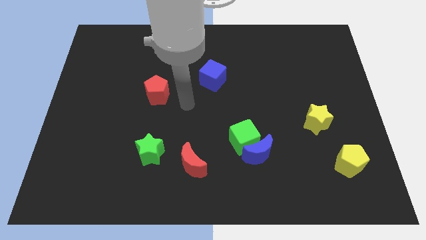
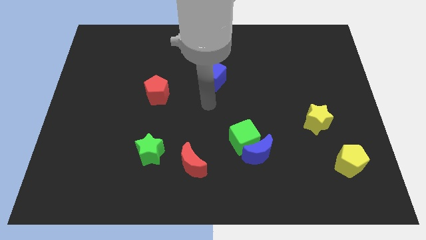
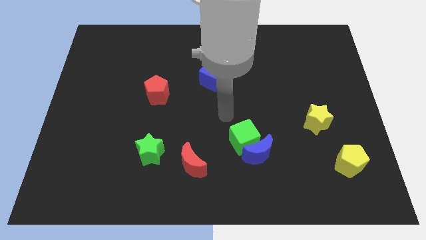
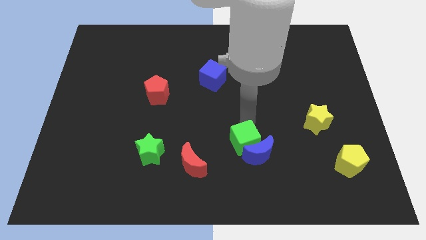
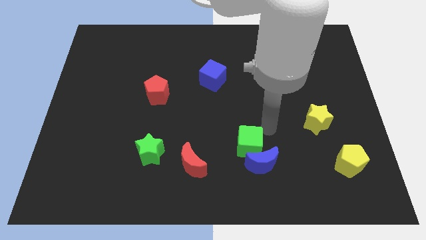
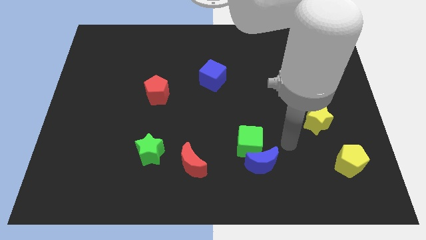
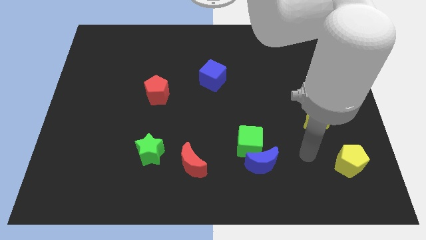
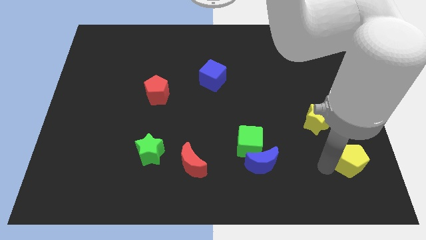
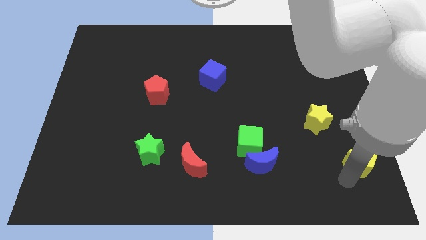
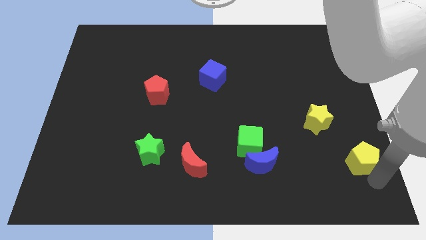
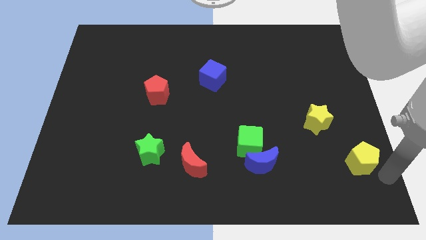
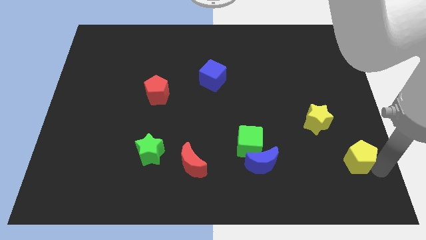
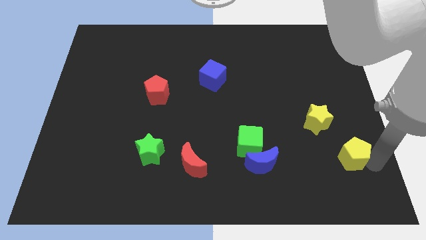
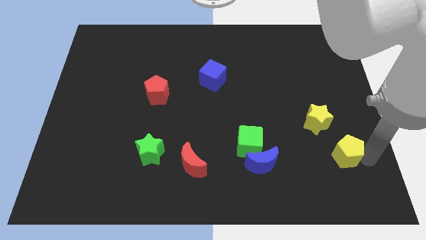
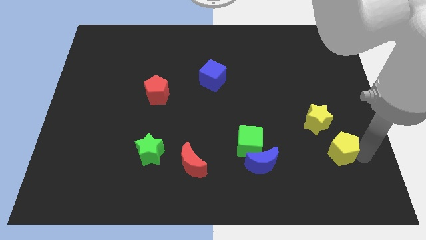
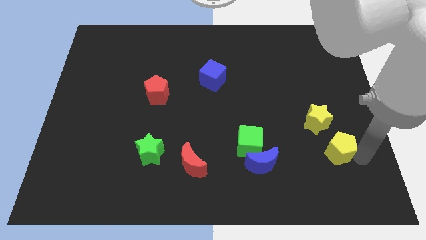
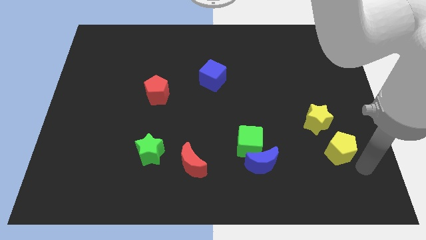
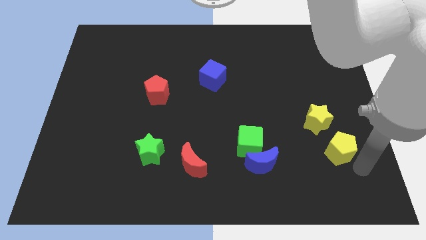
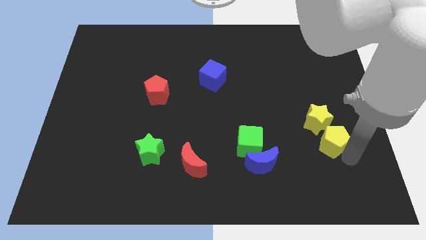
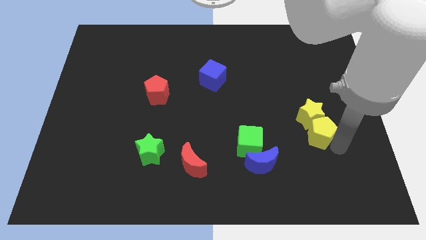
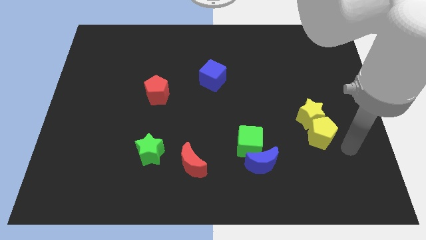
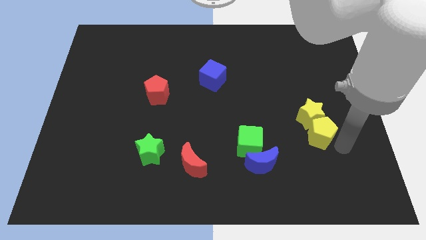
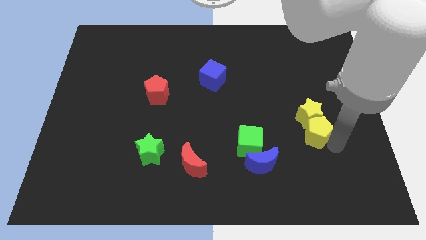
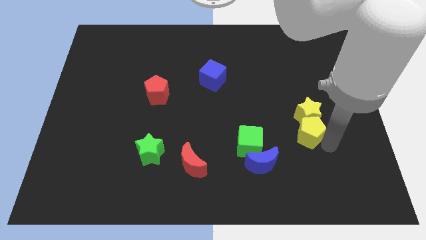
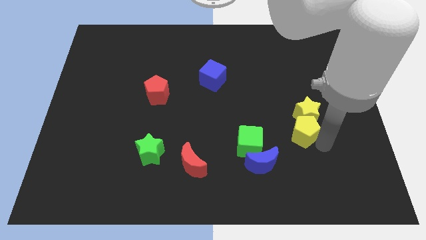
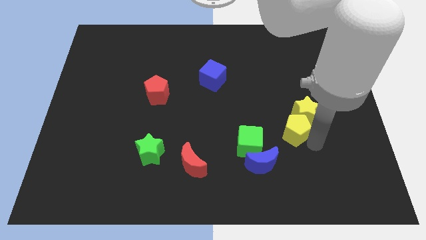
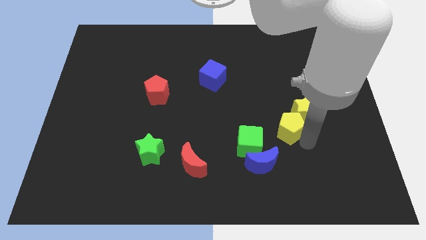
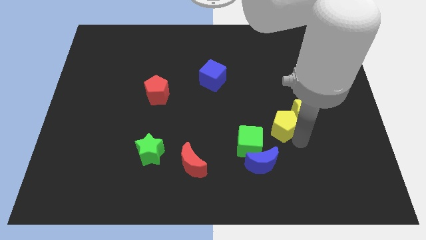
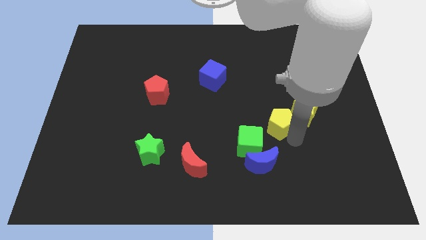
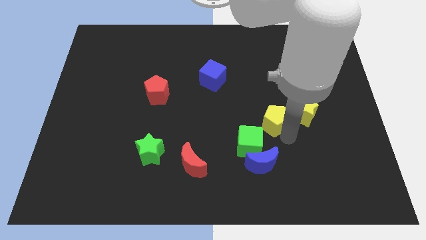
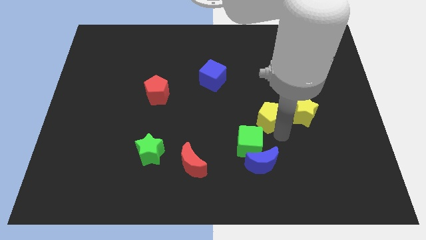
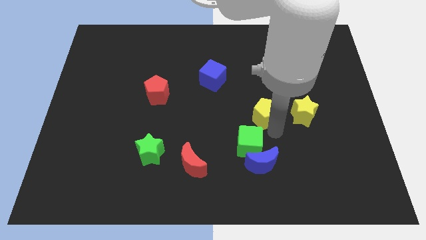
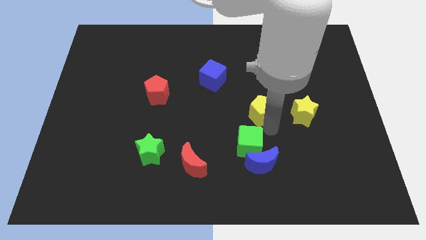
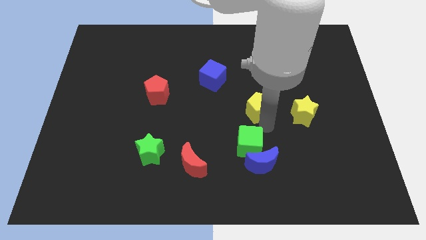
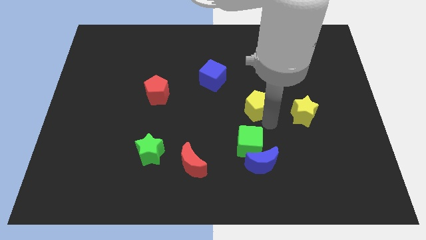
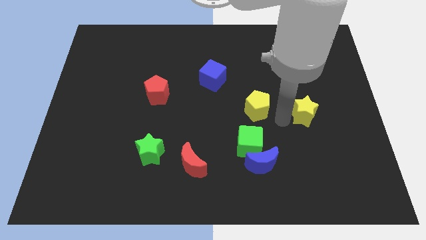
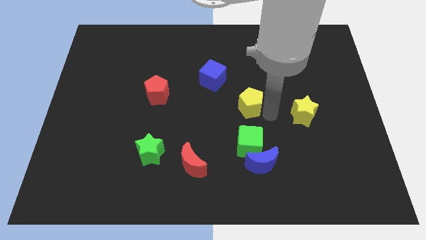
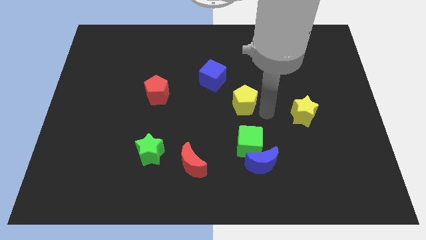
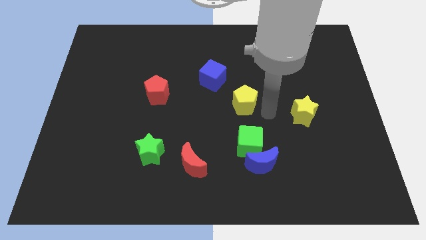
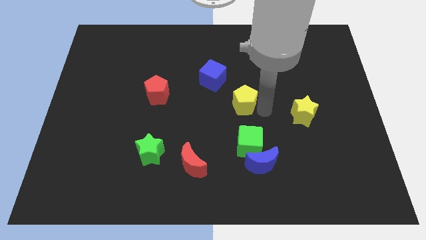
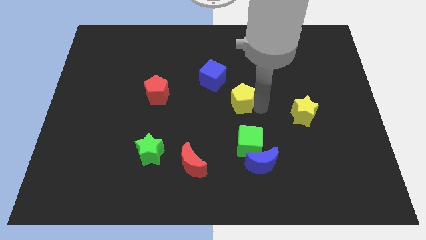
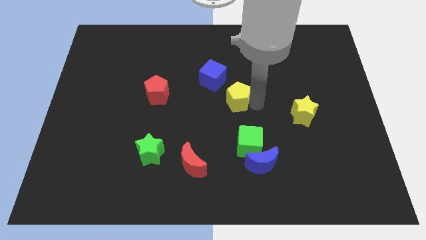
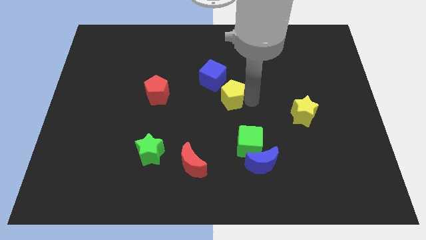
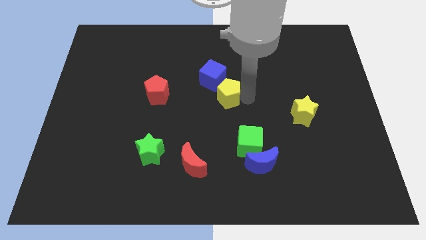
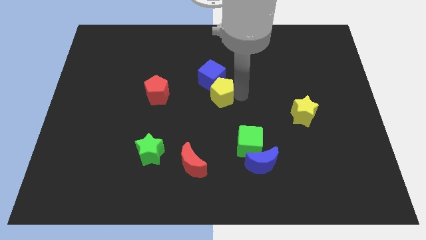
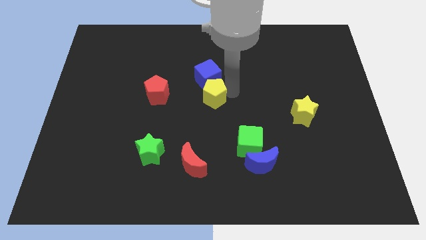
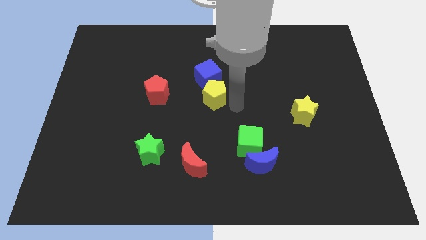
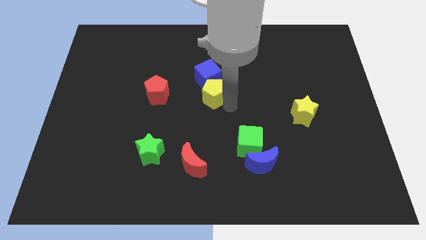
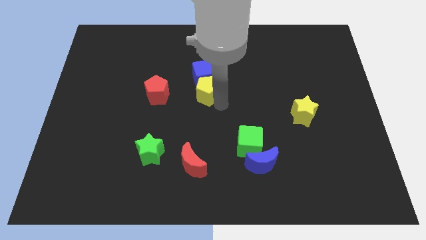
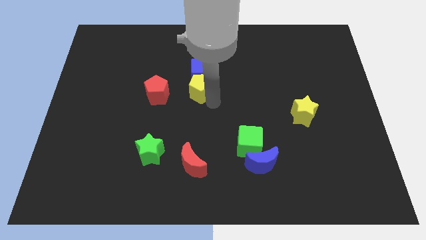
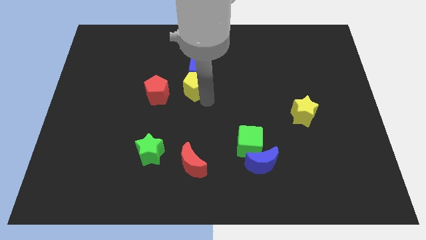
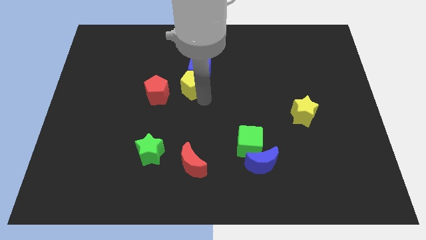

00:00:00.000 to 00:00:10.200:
move the yellow pentagon diagonally up and to the right of the red pentagon

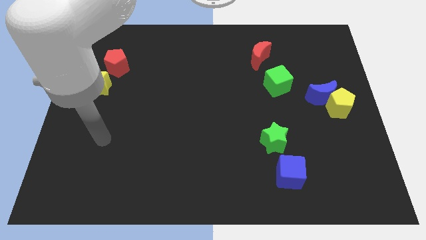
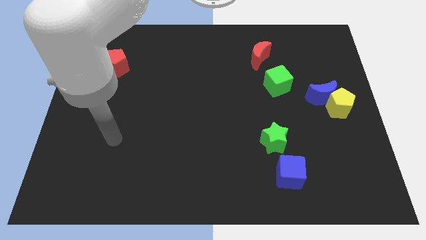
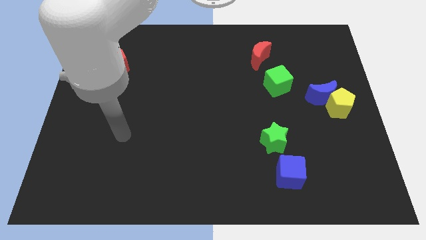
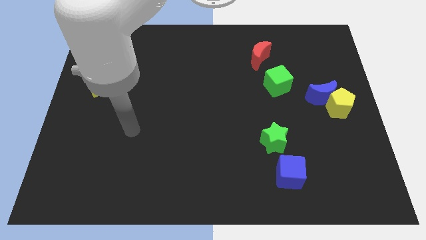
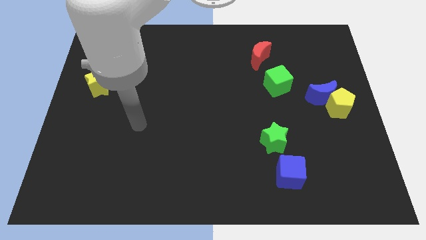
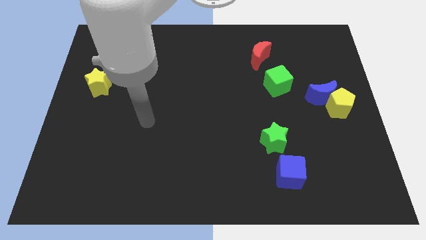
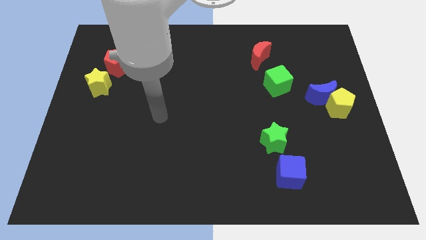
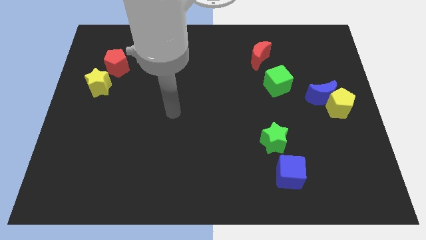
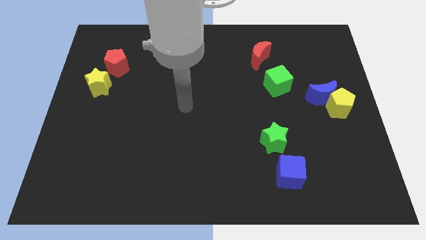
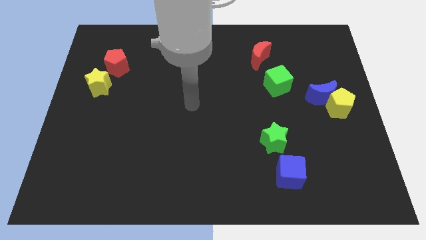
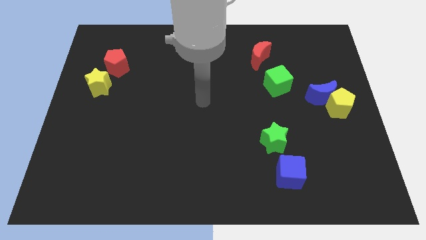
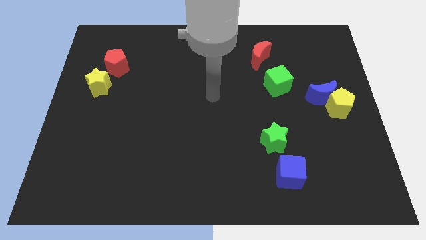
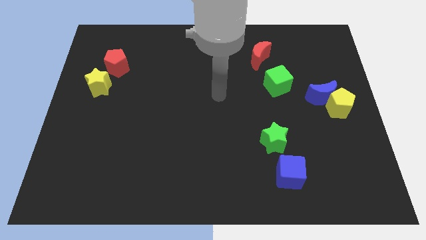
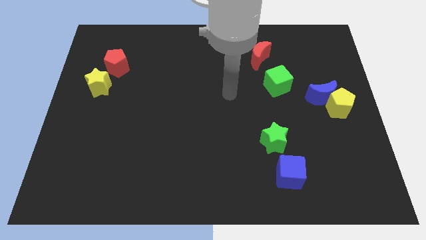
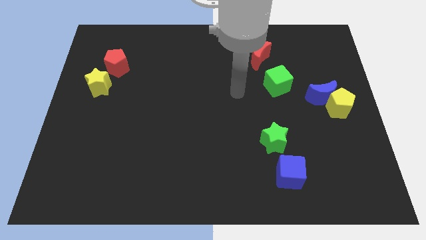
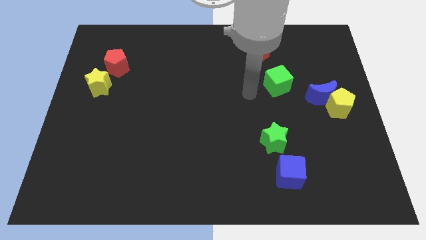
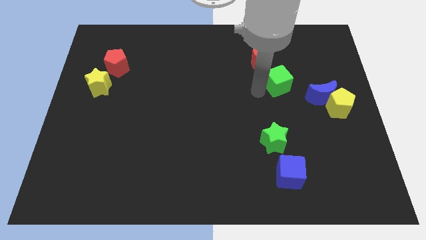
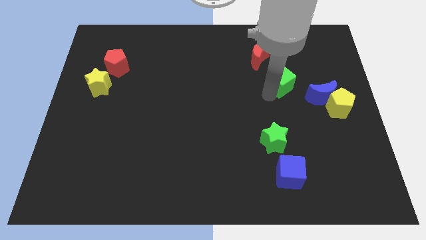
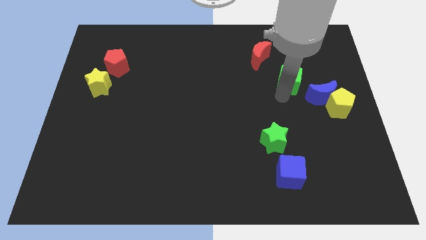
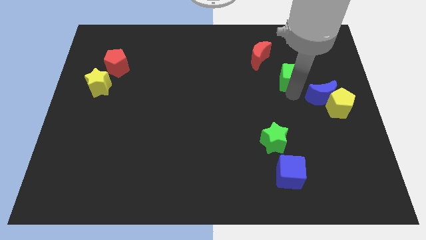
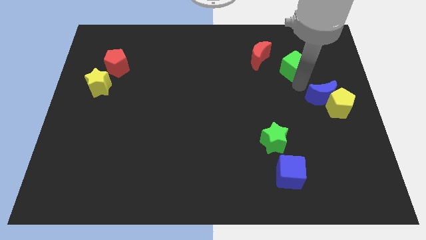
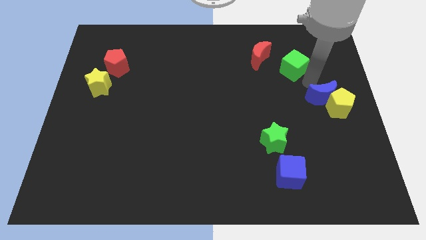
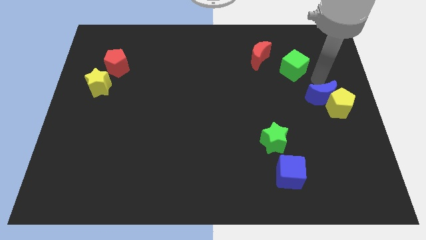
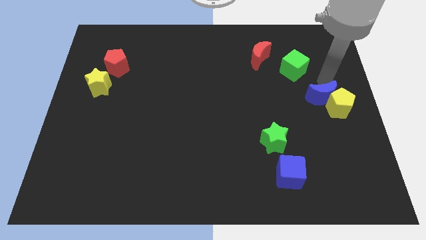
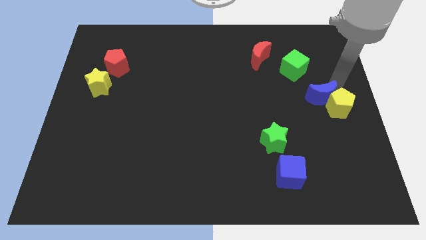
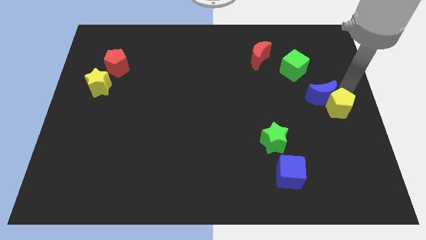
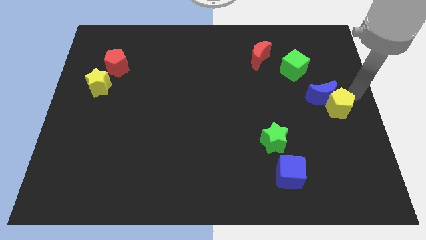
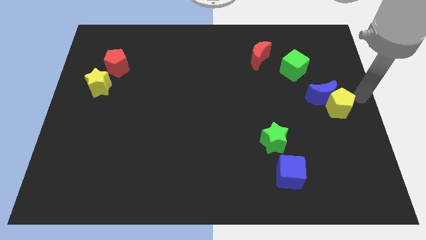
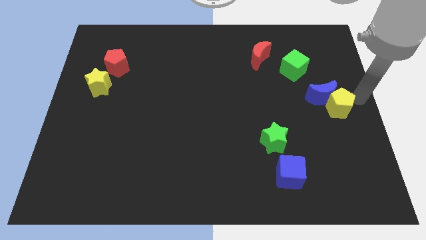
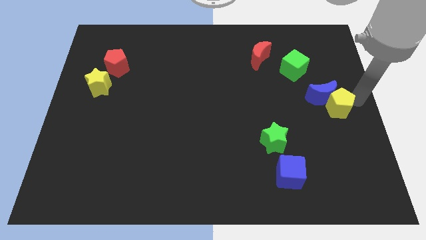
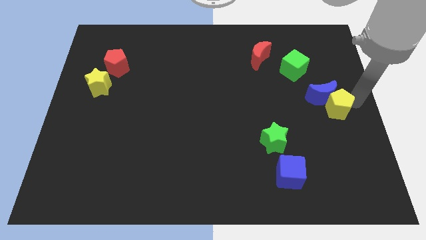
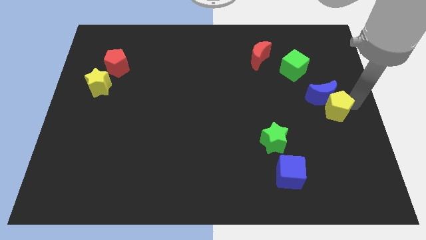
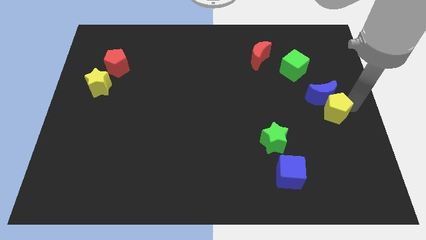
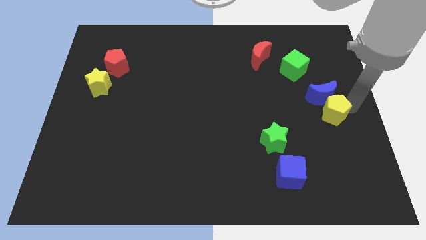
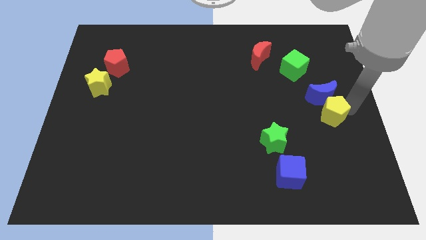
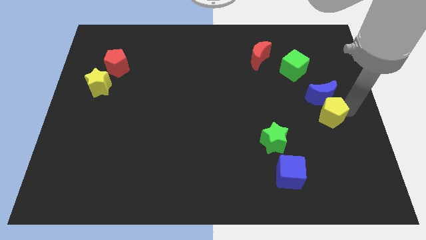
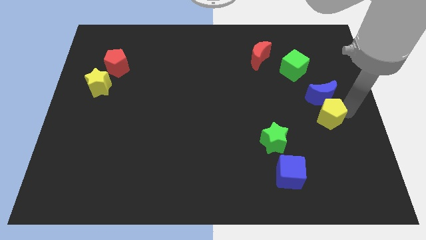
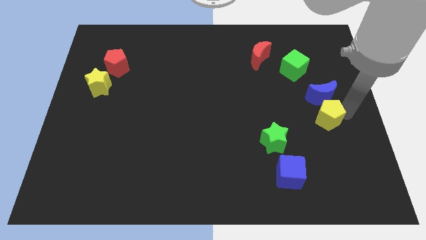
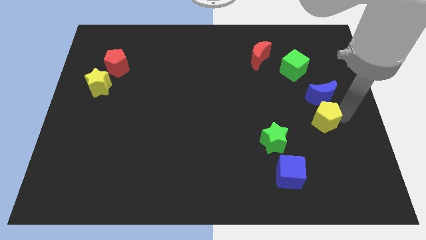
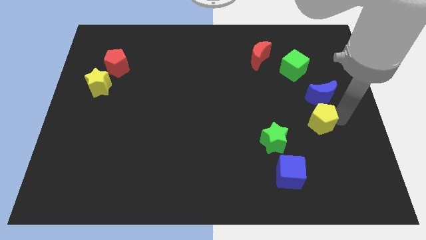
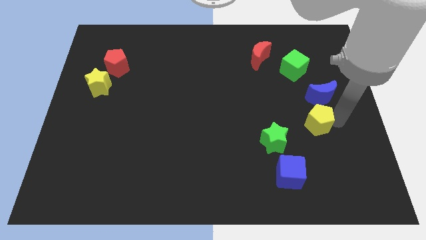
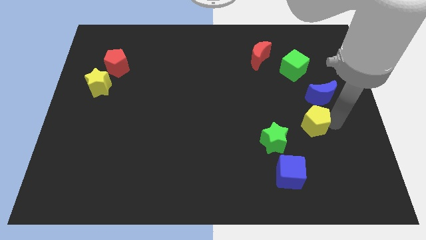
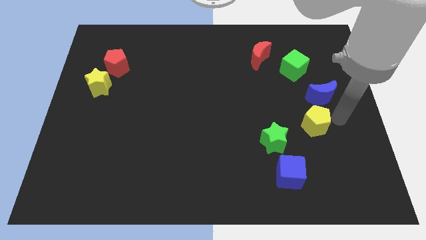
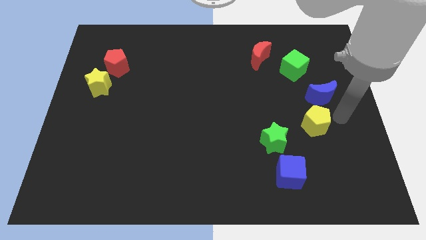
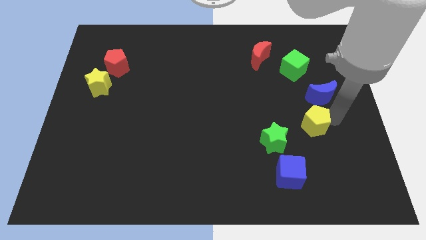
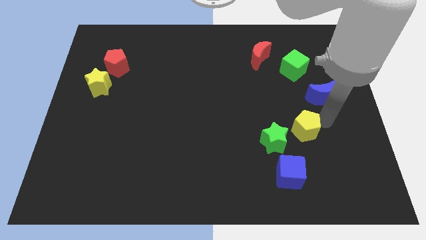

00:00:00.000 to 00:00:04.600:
push the yellow pentagon above the blue cube
